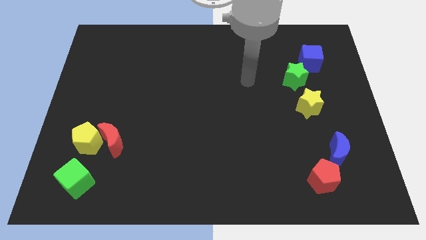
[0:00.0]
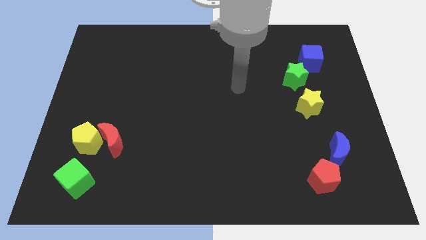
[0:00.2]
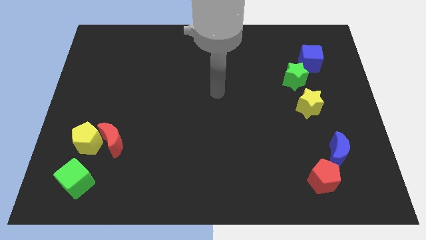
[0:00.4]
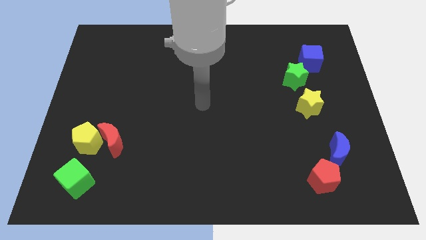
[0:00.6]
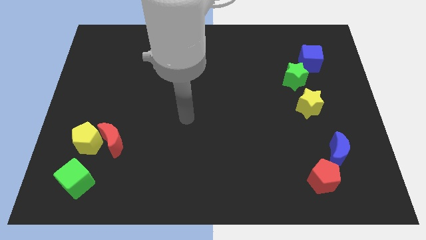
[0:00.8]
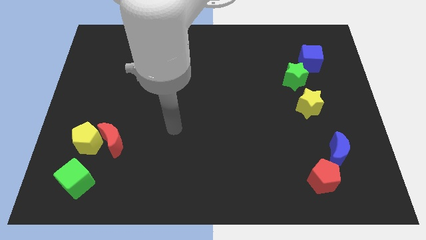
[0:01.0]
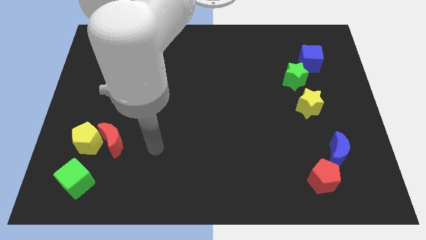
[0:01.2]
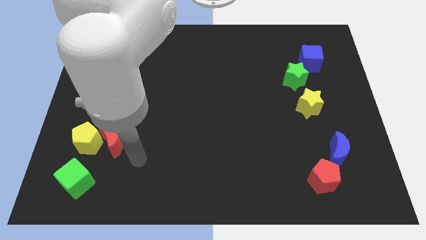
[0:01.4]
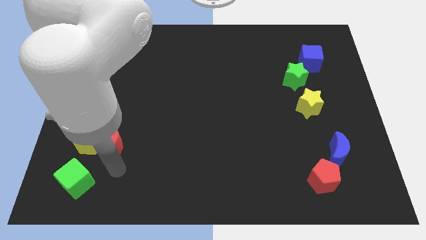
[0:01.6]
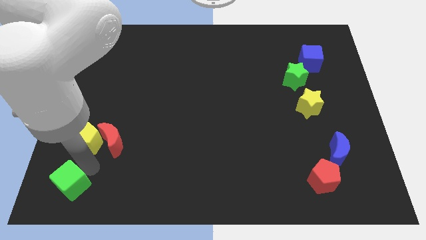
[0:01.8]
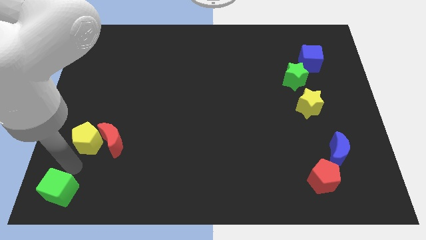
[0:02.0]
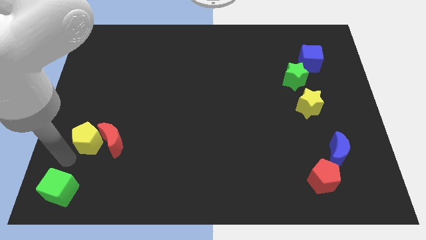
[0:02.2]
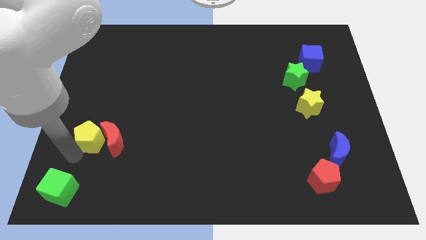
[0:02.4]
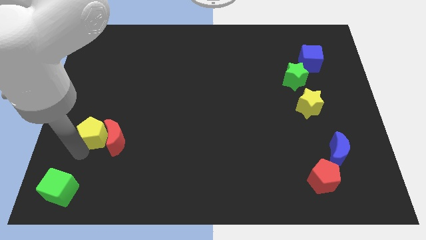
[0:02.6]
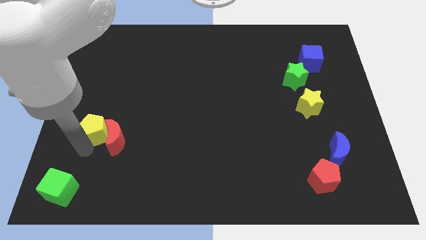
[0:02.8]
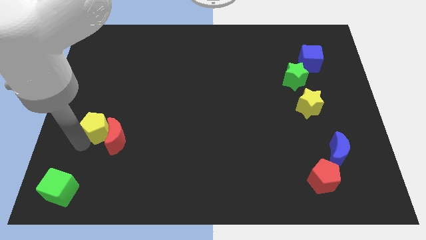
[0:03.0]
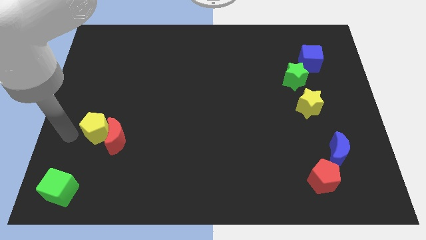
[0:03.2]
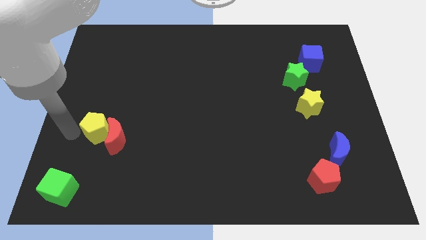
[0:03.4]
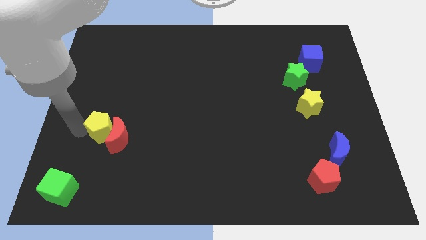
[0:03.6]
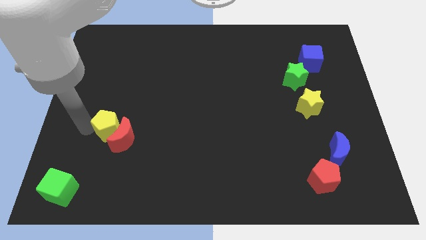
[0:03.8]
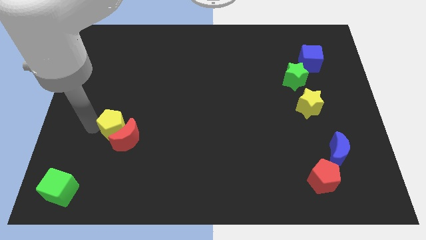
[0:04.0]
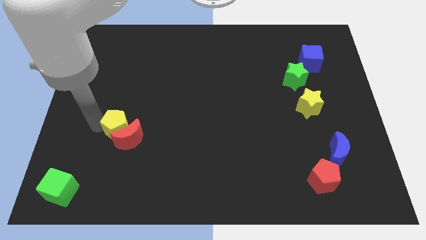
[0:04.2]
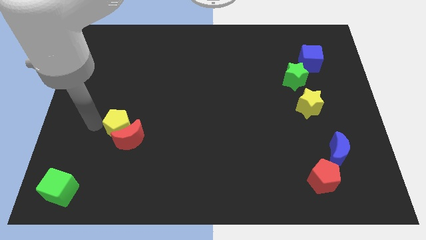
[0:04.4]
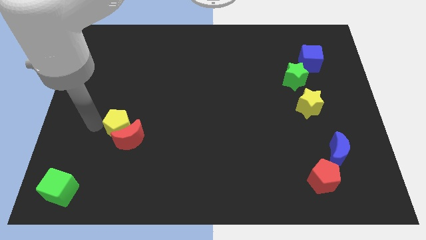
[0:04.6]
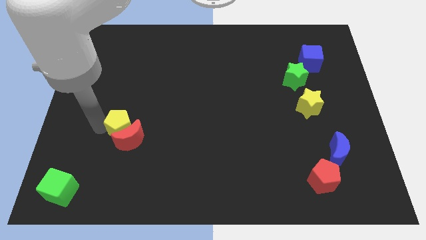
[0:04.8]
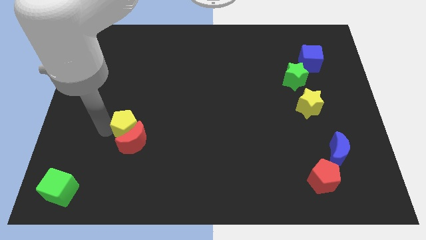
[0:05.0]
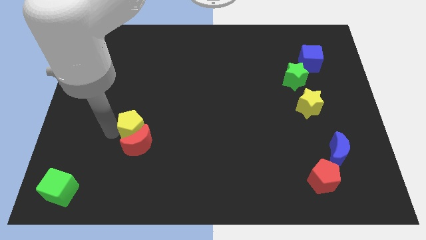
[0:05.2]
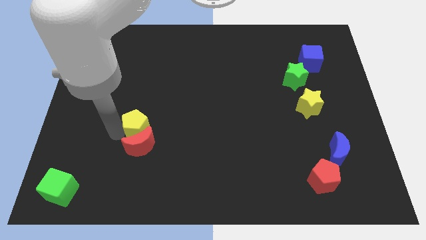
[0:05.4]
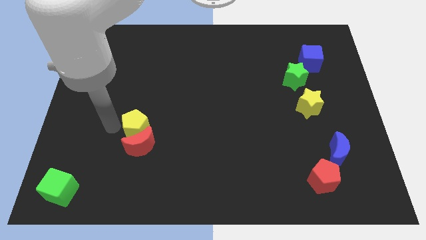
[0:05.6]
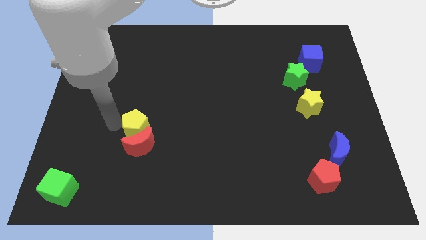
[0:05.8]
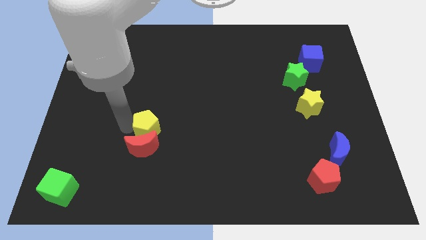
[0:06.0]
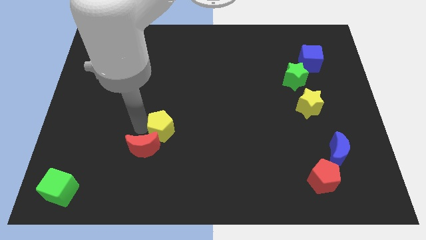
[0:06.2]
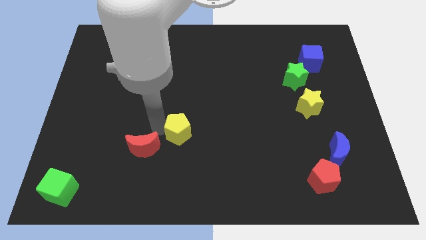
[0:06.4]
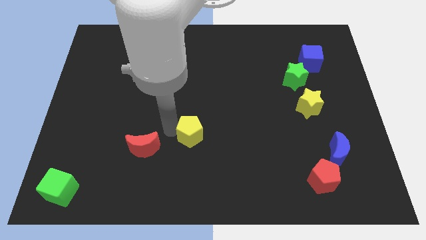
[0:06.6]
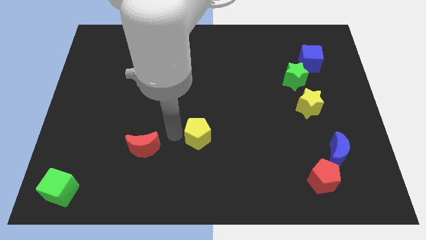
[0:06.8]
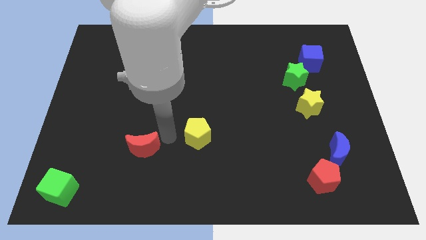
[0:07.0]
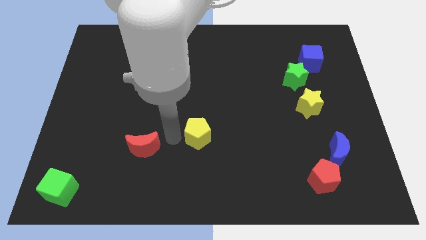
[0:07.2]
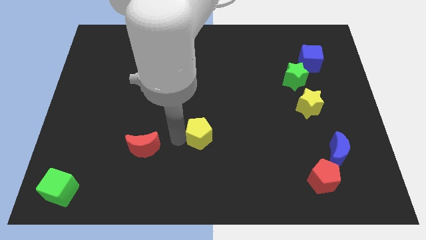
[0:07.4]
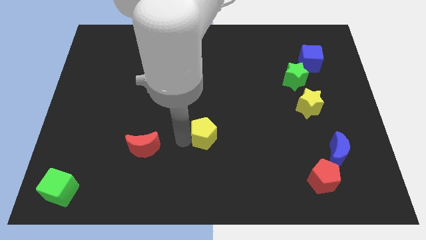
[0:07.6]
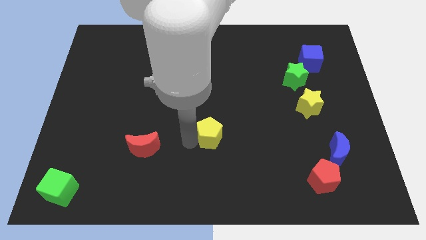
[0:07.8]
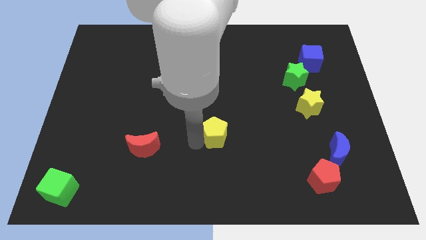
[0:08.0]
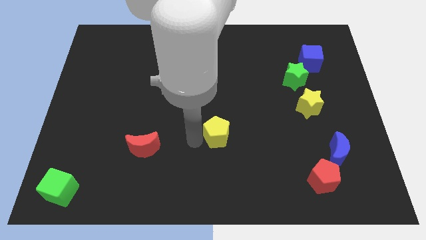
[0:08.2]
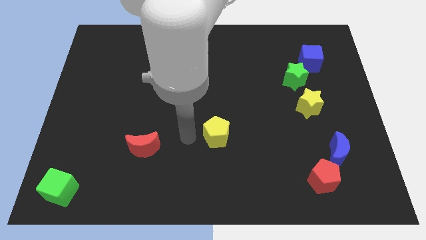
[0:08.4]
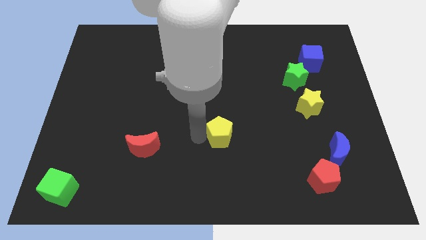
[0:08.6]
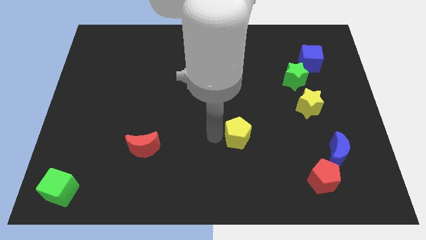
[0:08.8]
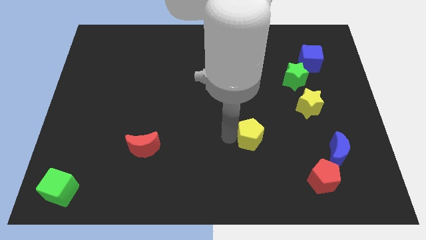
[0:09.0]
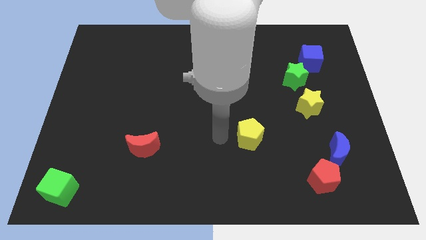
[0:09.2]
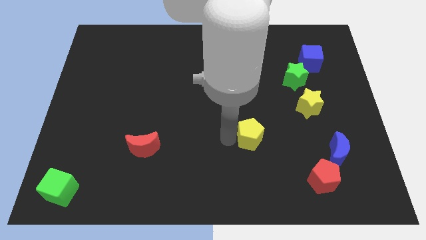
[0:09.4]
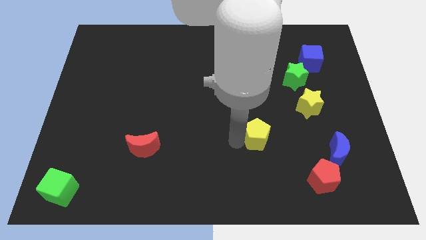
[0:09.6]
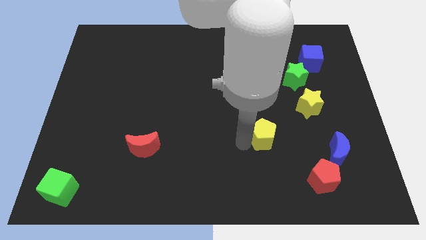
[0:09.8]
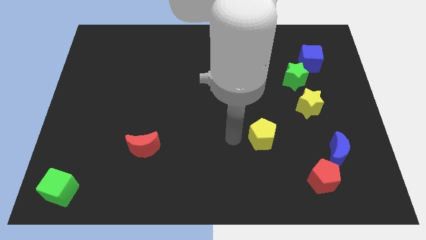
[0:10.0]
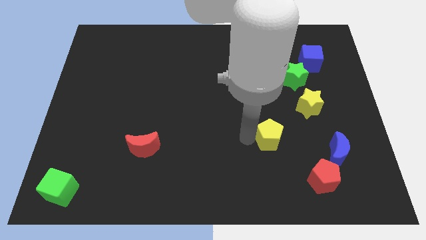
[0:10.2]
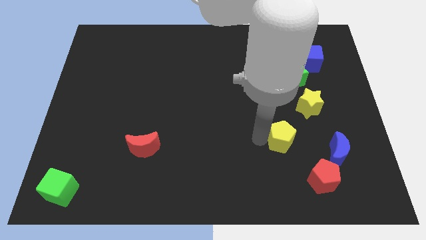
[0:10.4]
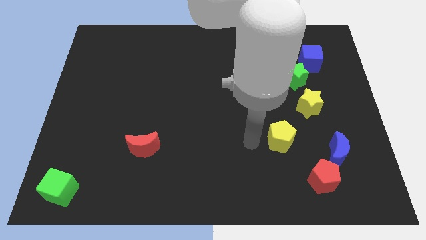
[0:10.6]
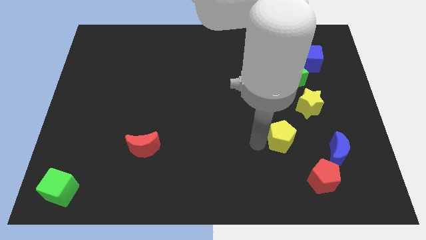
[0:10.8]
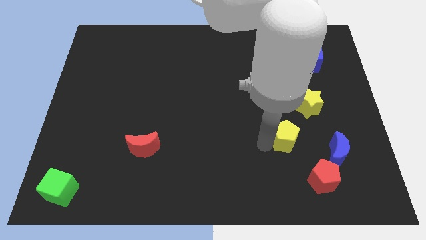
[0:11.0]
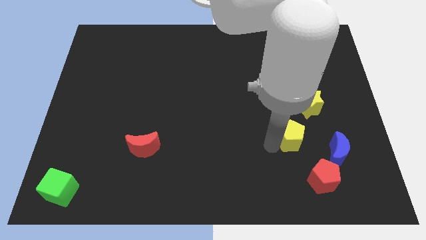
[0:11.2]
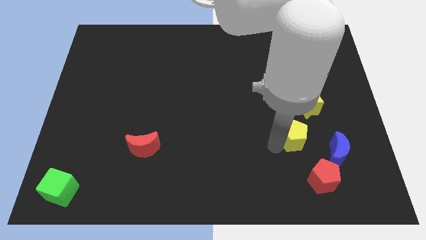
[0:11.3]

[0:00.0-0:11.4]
slide the yellow pentagon to the top side of the red pentagon

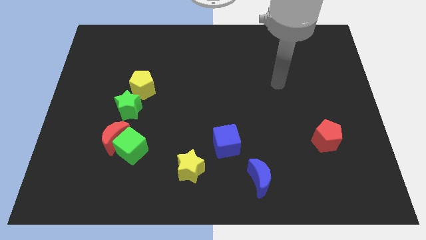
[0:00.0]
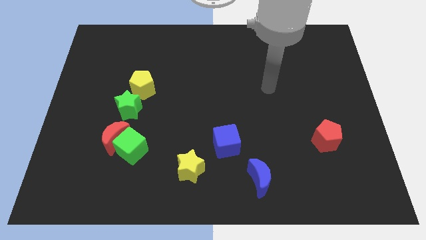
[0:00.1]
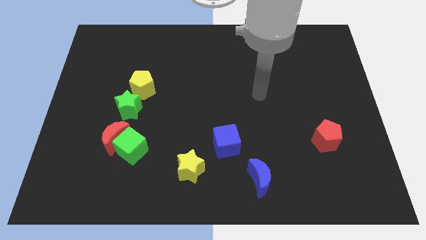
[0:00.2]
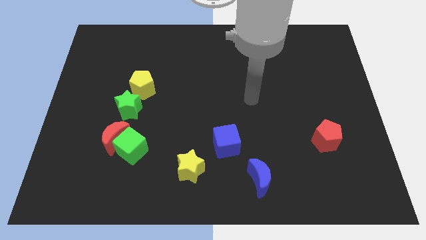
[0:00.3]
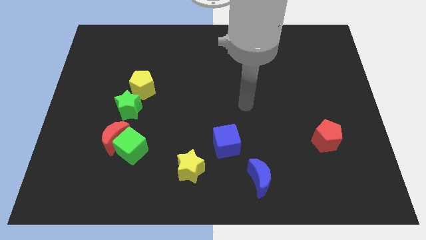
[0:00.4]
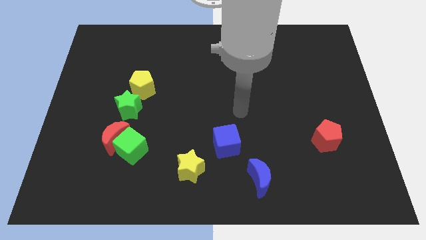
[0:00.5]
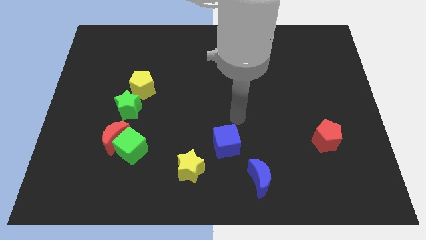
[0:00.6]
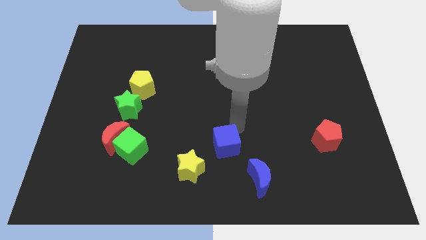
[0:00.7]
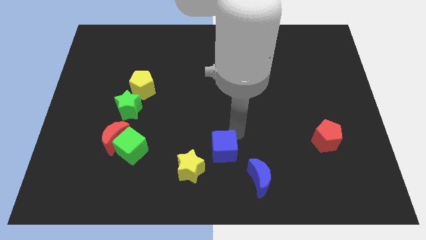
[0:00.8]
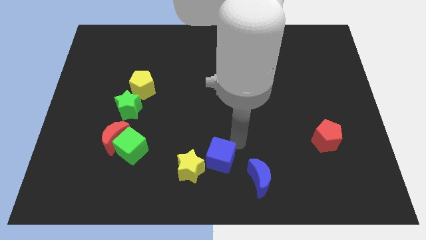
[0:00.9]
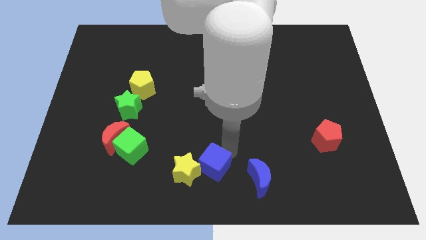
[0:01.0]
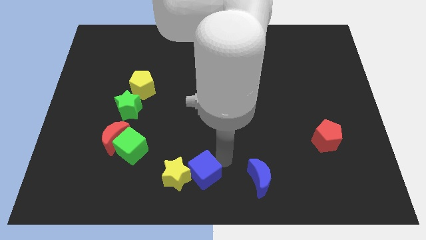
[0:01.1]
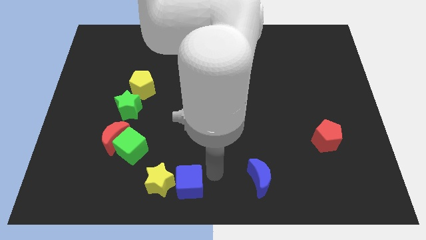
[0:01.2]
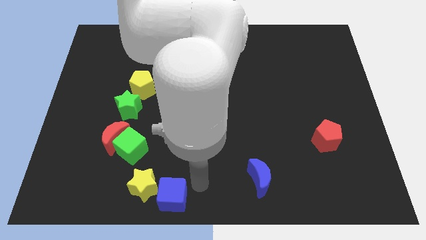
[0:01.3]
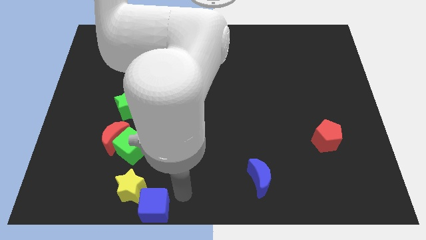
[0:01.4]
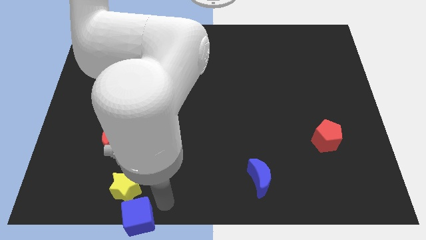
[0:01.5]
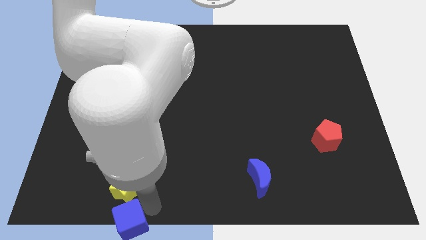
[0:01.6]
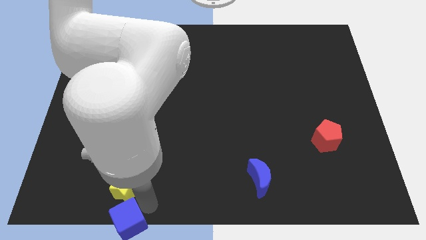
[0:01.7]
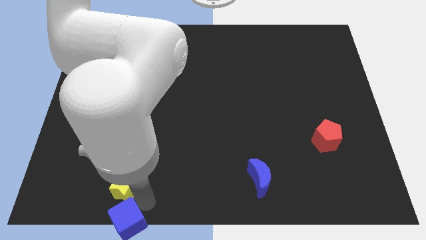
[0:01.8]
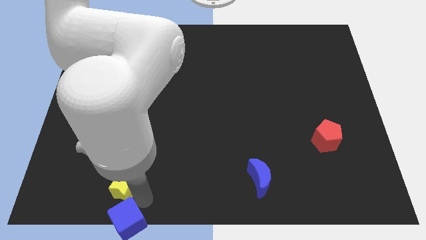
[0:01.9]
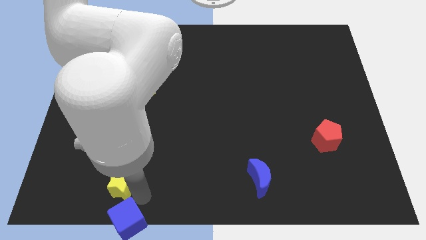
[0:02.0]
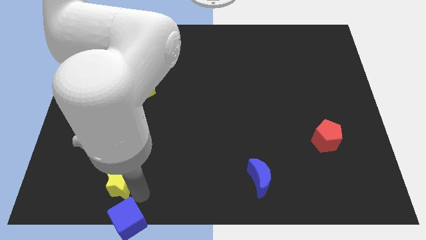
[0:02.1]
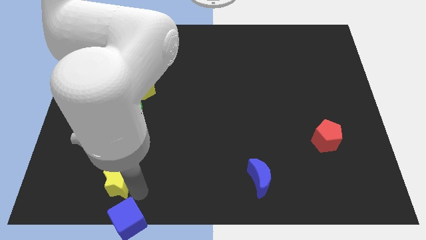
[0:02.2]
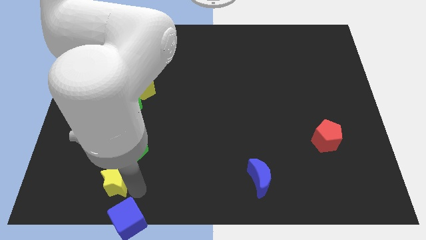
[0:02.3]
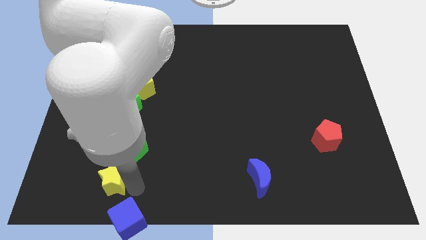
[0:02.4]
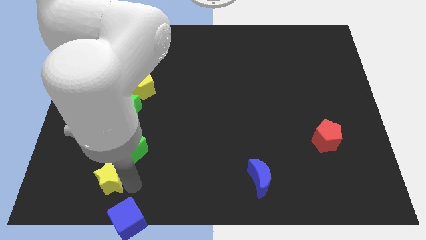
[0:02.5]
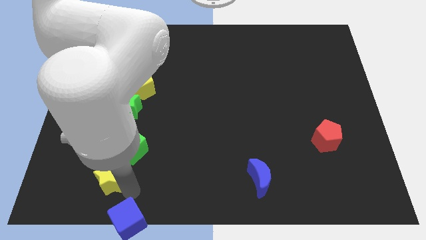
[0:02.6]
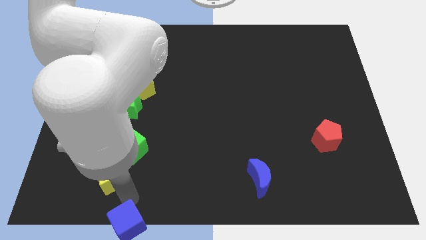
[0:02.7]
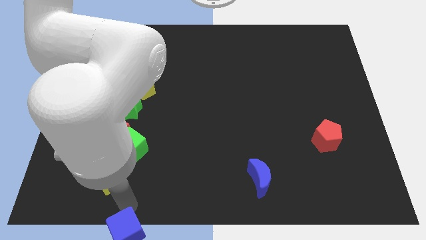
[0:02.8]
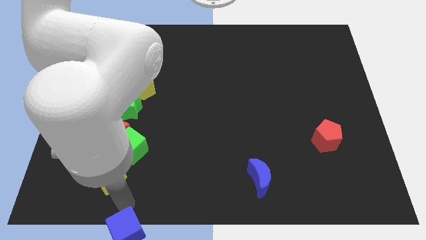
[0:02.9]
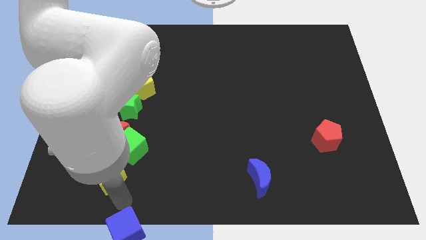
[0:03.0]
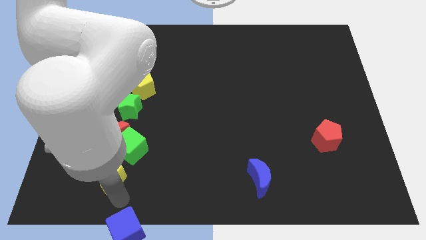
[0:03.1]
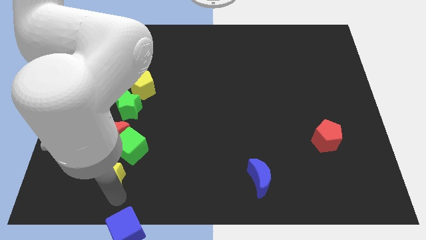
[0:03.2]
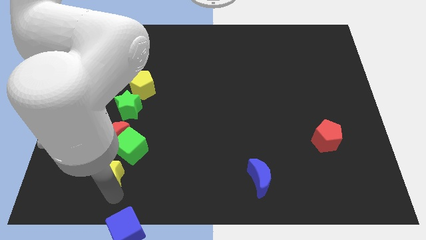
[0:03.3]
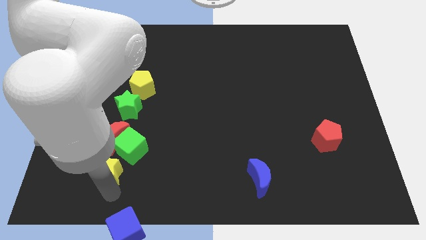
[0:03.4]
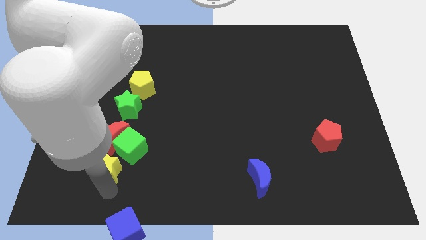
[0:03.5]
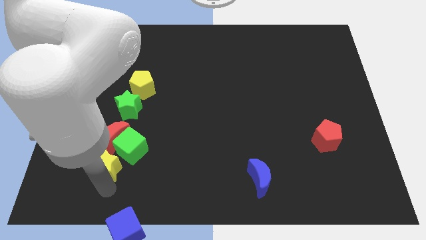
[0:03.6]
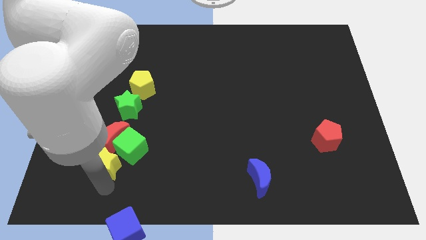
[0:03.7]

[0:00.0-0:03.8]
move the yellow star to the left of the green cube
